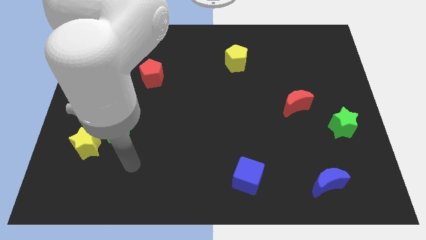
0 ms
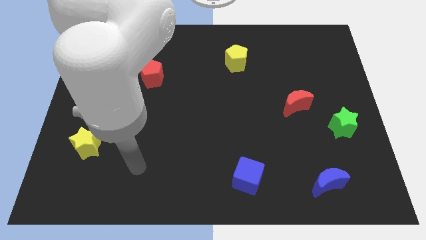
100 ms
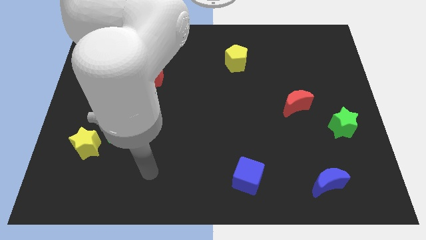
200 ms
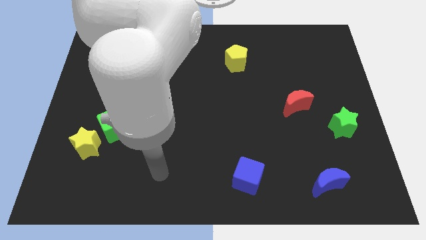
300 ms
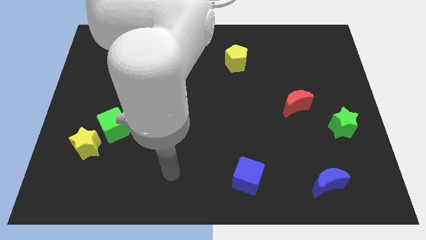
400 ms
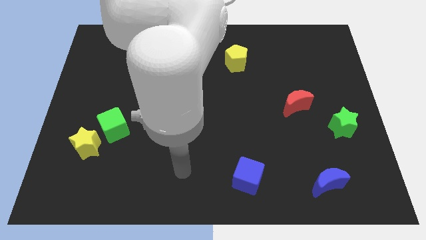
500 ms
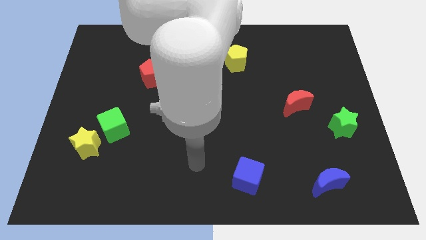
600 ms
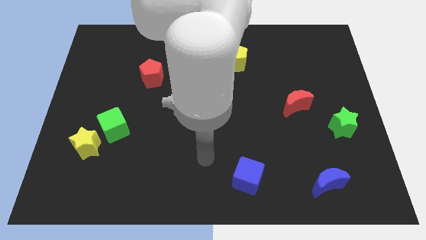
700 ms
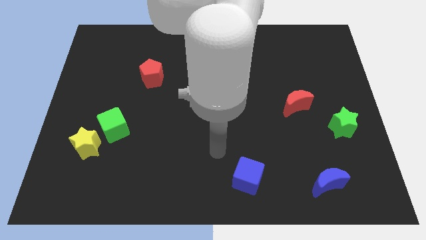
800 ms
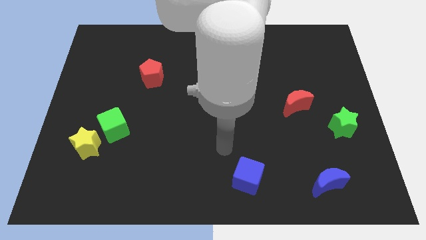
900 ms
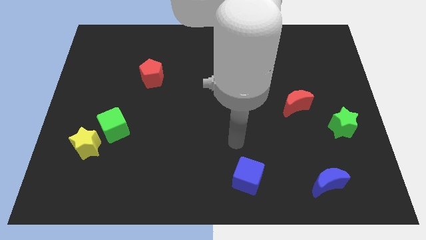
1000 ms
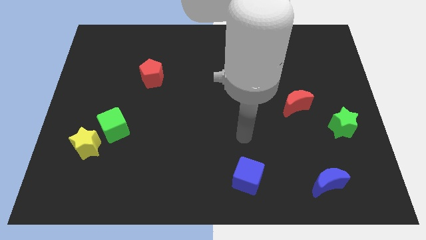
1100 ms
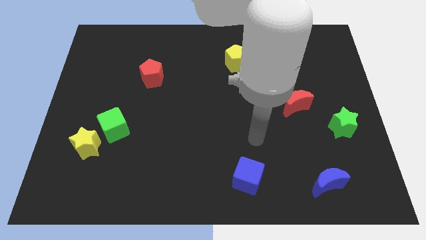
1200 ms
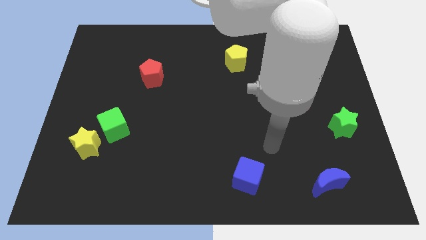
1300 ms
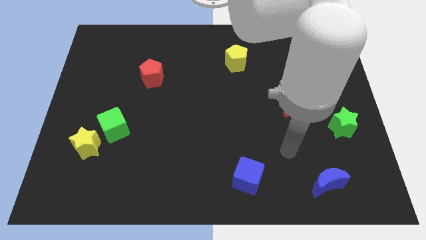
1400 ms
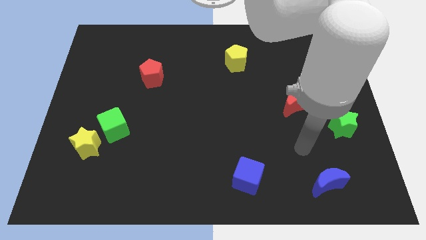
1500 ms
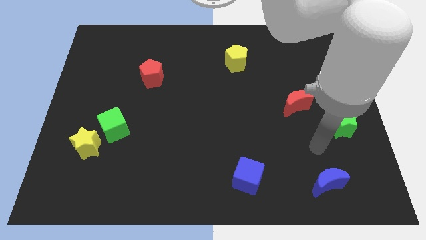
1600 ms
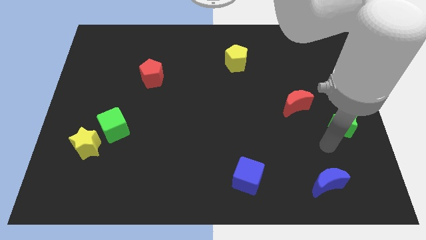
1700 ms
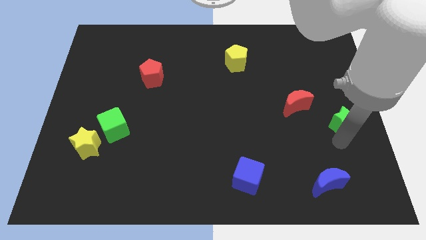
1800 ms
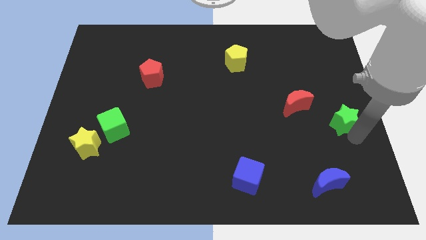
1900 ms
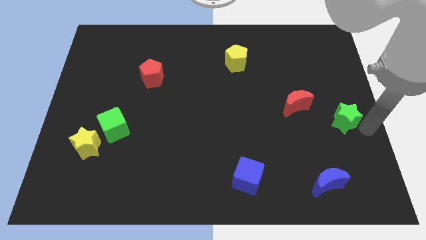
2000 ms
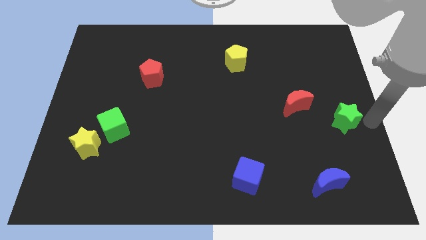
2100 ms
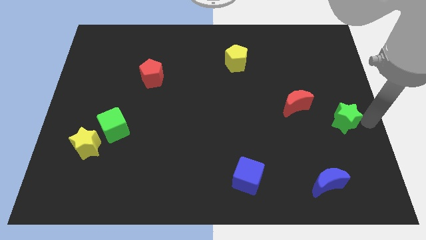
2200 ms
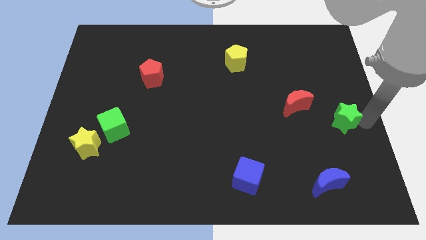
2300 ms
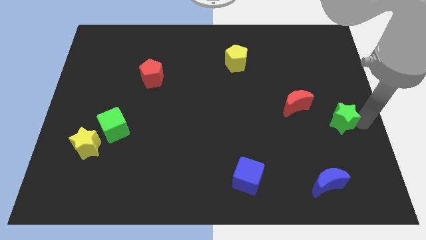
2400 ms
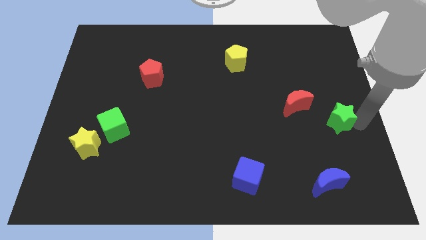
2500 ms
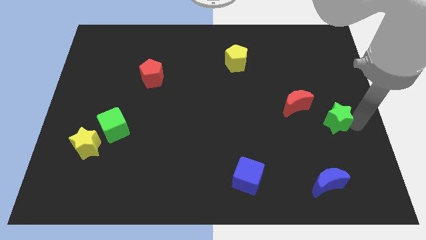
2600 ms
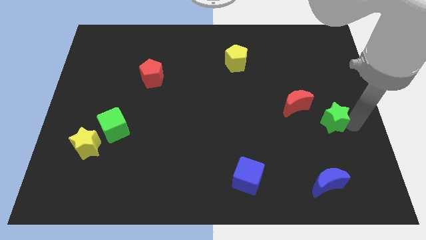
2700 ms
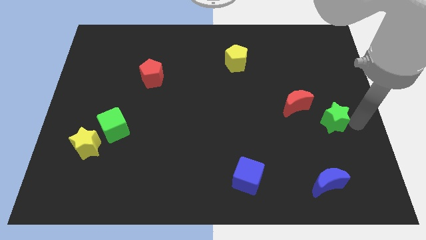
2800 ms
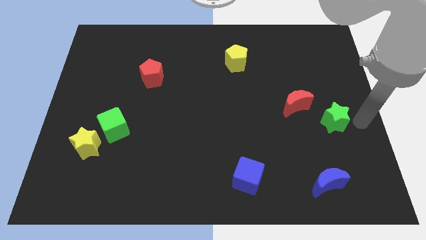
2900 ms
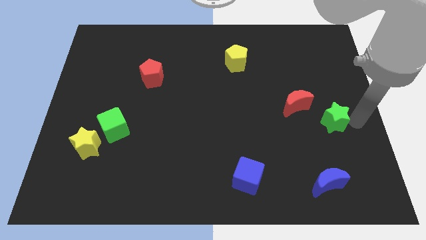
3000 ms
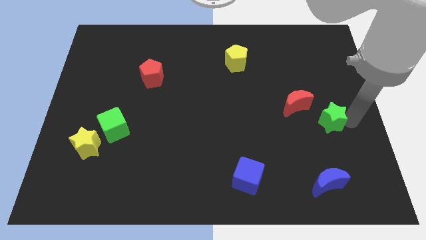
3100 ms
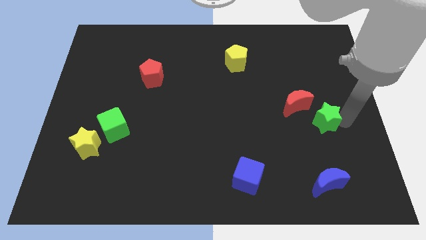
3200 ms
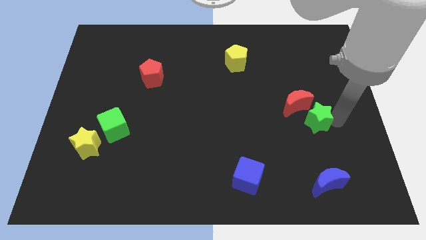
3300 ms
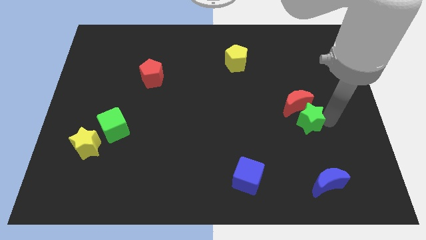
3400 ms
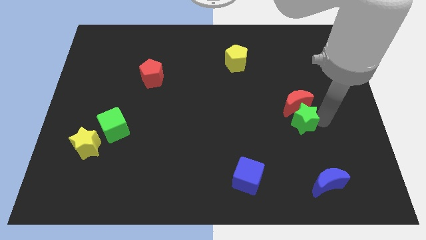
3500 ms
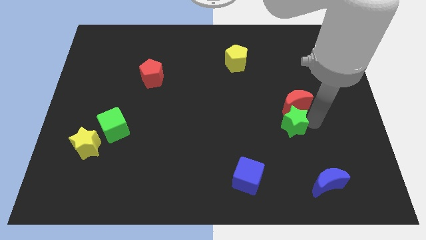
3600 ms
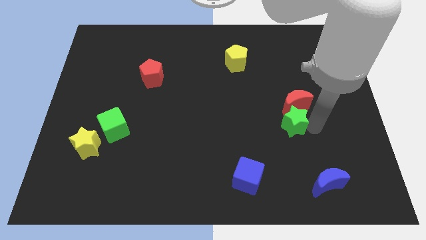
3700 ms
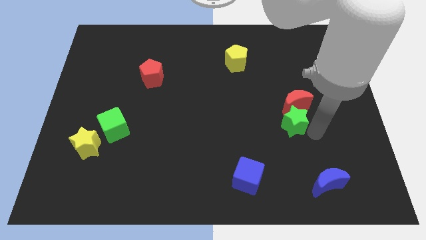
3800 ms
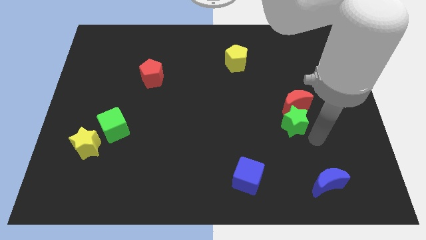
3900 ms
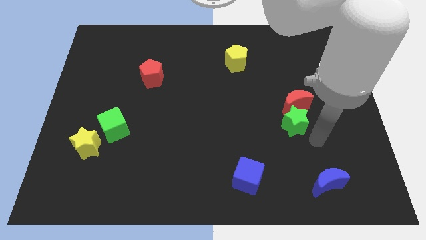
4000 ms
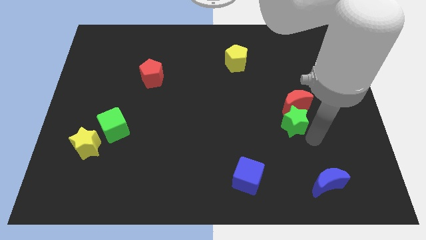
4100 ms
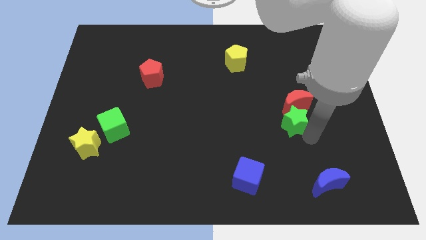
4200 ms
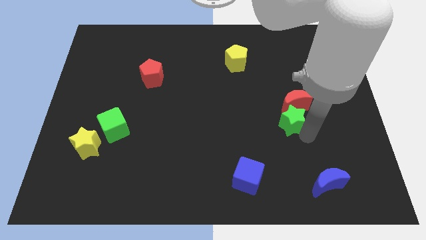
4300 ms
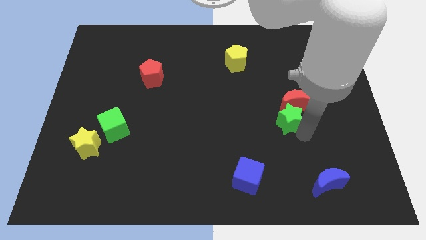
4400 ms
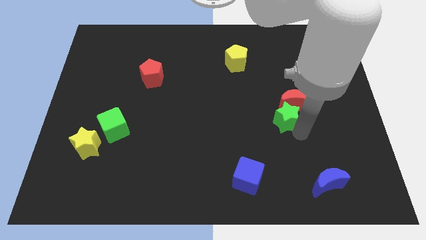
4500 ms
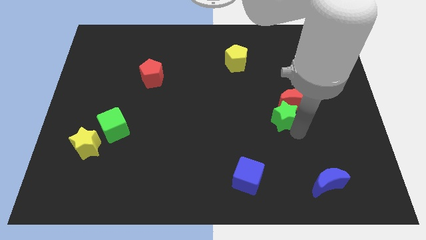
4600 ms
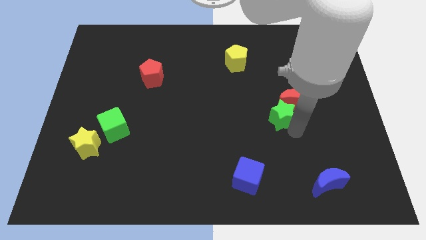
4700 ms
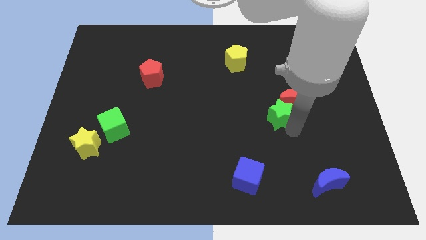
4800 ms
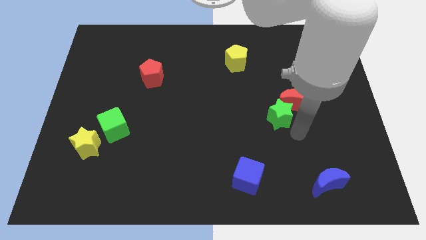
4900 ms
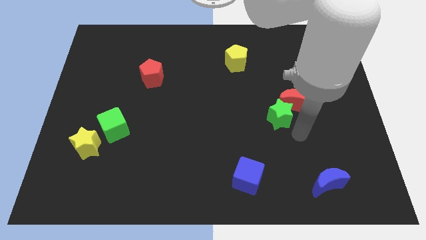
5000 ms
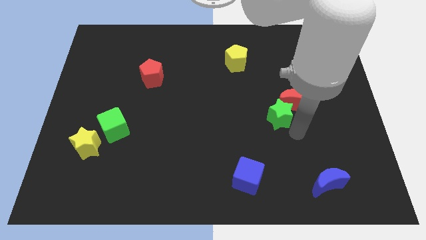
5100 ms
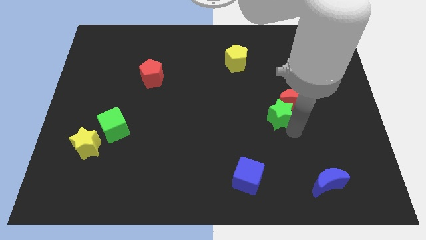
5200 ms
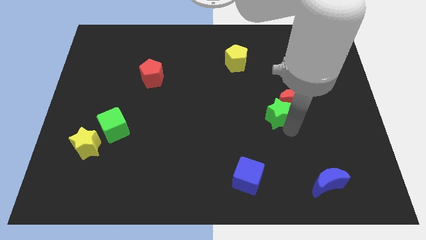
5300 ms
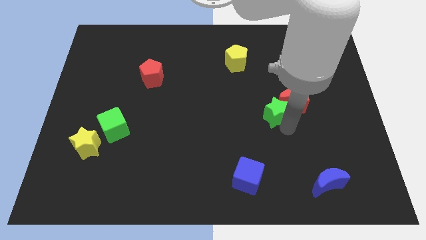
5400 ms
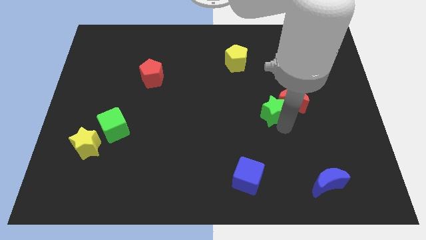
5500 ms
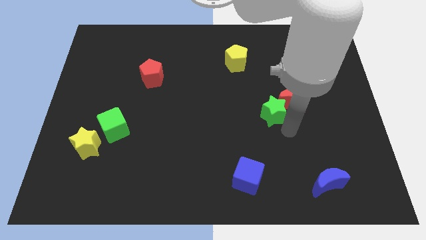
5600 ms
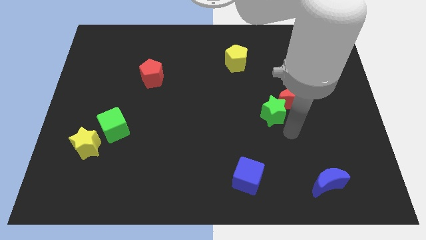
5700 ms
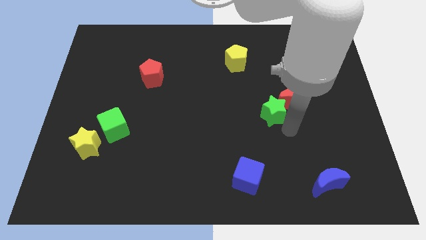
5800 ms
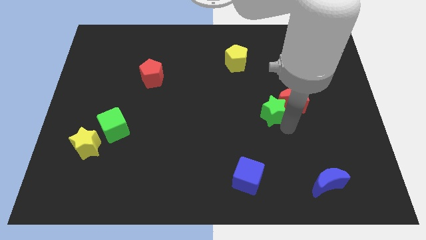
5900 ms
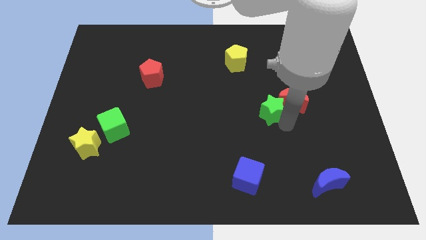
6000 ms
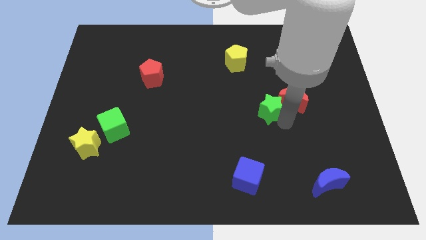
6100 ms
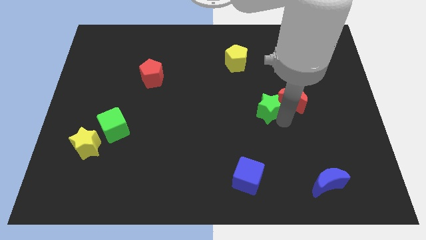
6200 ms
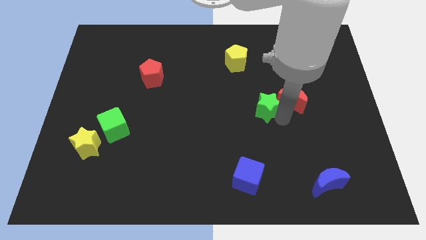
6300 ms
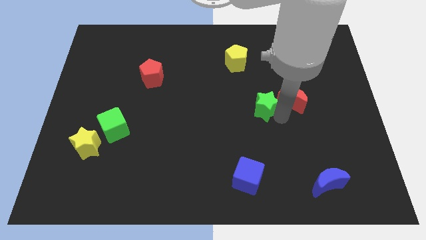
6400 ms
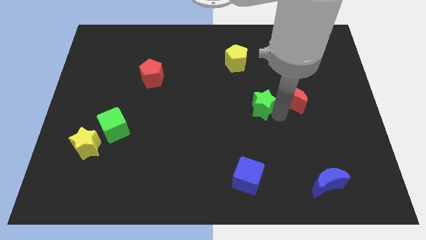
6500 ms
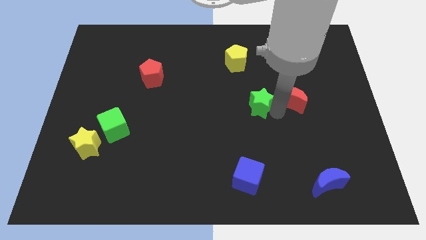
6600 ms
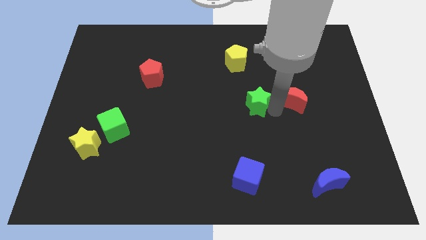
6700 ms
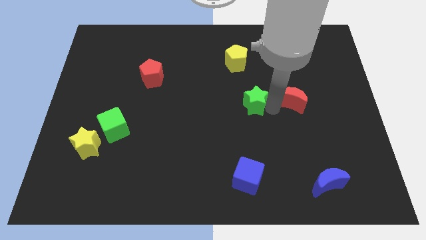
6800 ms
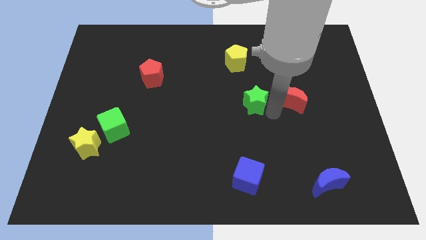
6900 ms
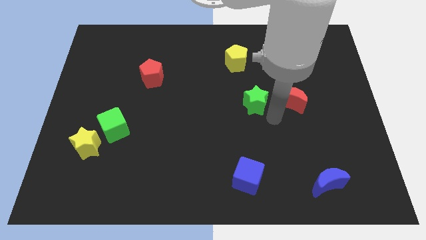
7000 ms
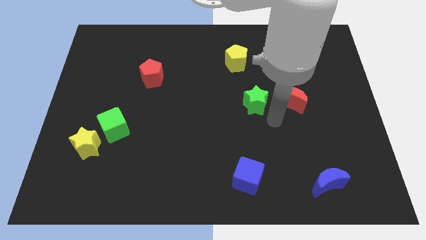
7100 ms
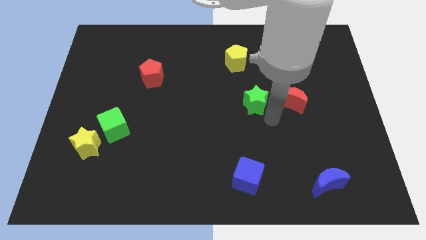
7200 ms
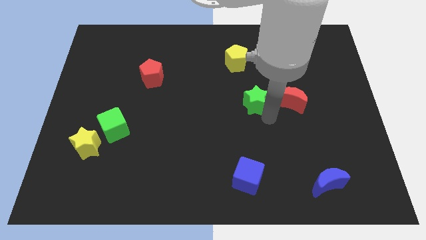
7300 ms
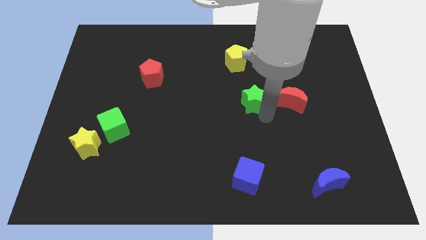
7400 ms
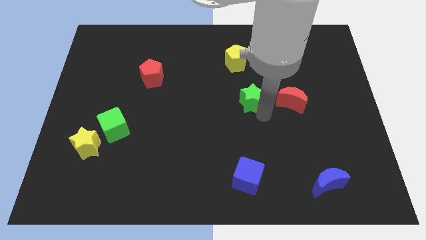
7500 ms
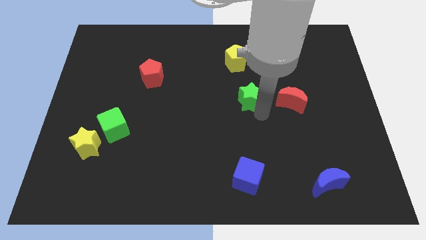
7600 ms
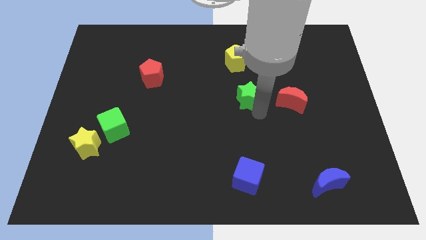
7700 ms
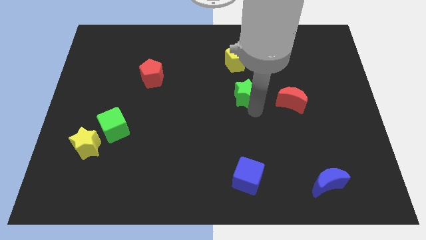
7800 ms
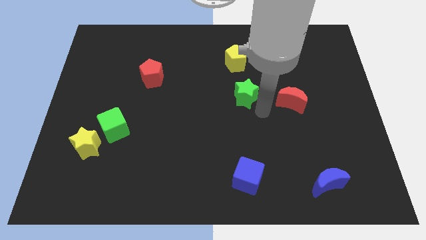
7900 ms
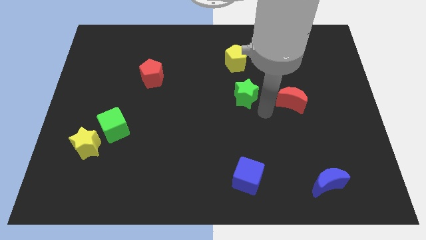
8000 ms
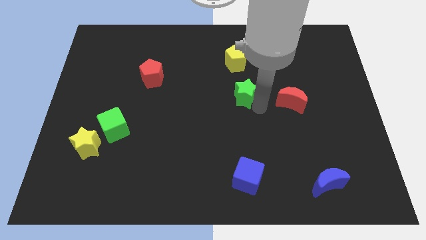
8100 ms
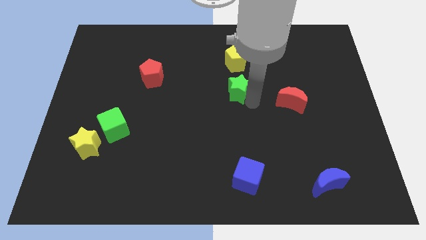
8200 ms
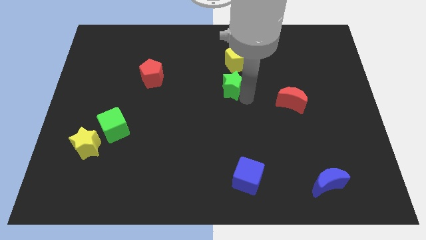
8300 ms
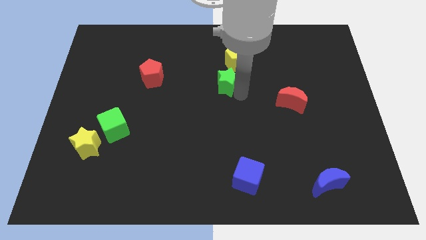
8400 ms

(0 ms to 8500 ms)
slide the green star to the bottom left of the yellow pentagon
